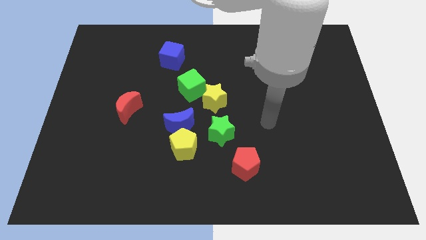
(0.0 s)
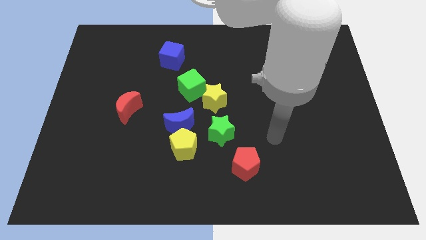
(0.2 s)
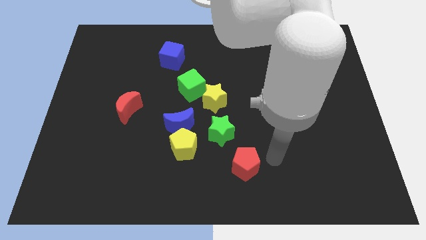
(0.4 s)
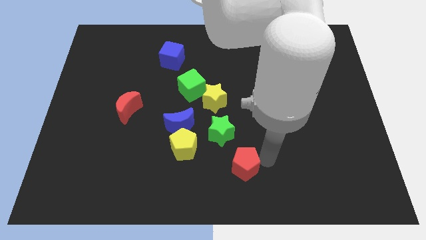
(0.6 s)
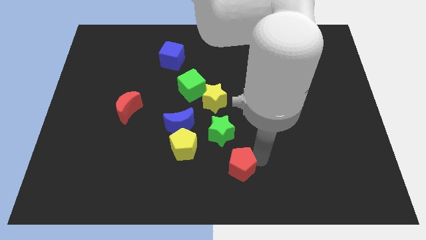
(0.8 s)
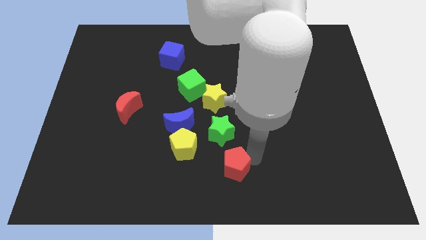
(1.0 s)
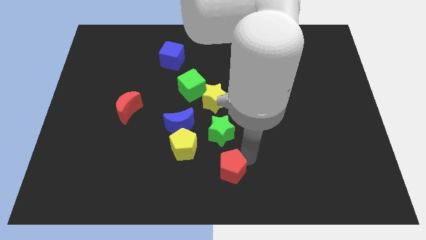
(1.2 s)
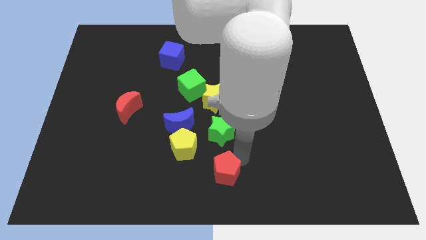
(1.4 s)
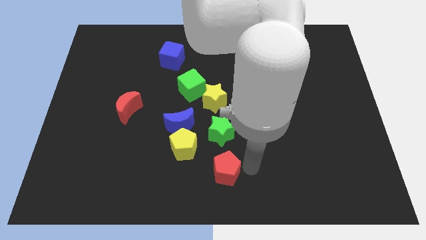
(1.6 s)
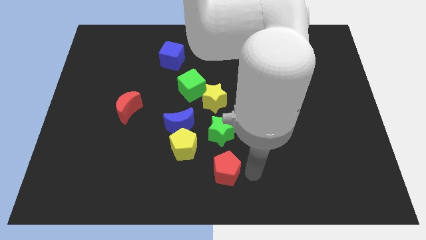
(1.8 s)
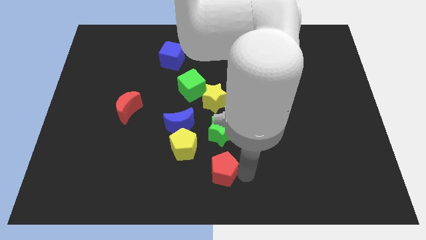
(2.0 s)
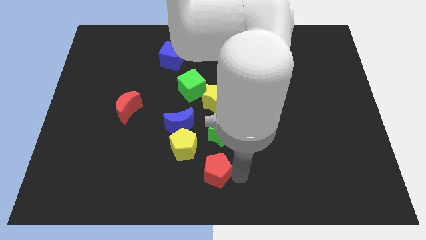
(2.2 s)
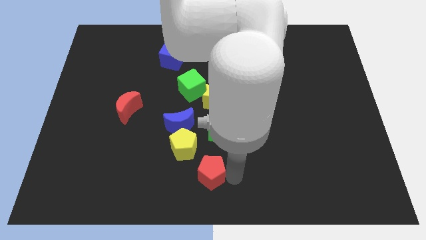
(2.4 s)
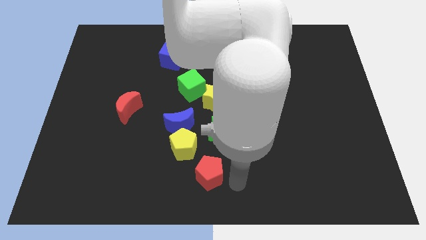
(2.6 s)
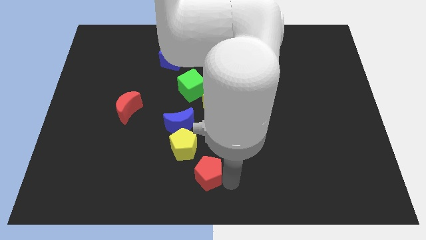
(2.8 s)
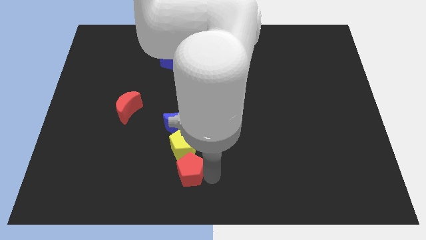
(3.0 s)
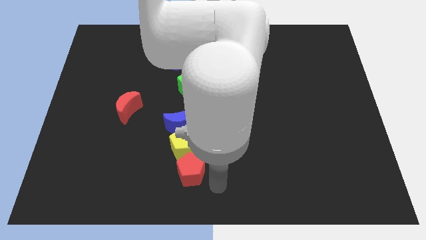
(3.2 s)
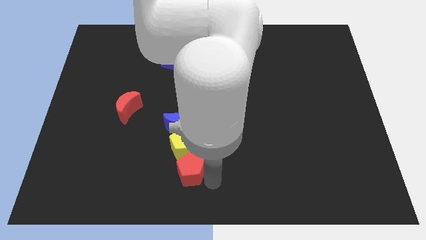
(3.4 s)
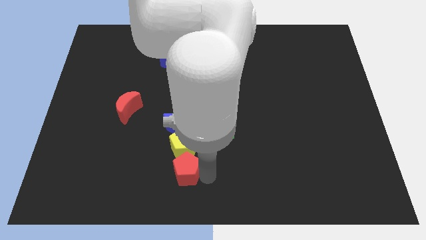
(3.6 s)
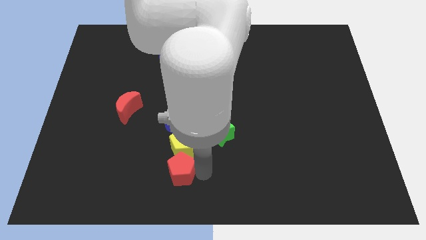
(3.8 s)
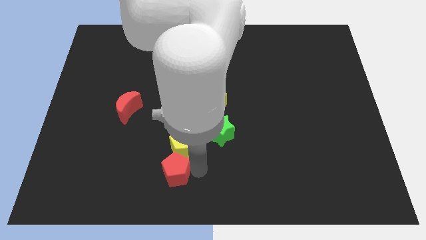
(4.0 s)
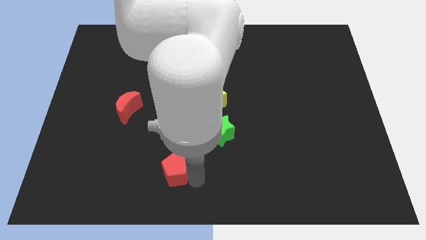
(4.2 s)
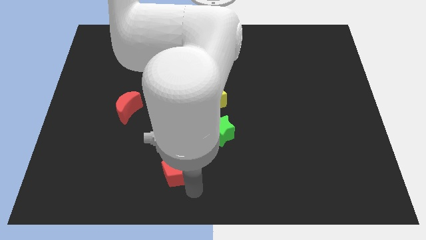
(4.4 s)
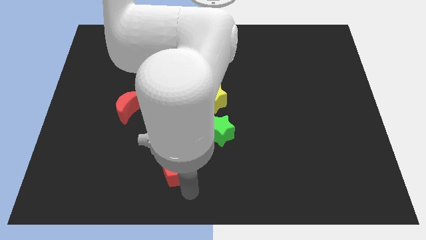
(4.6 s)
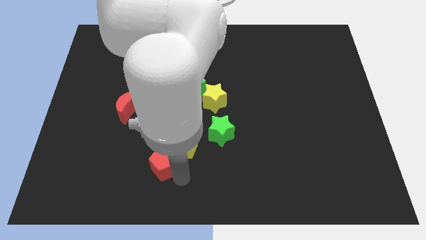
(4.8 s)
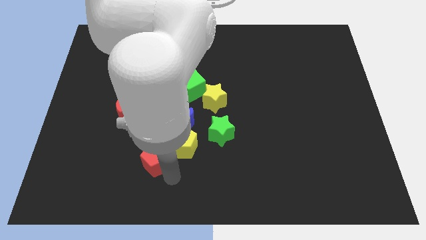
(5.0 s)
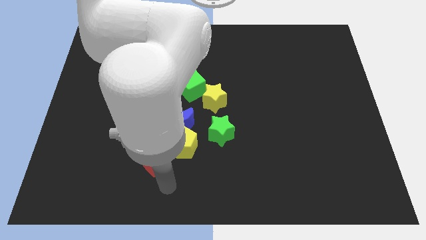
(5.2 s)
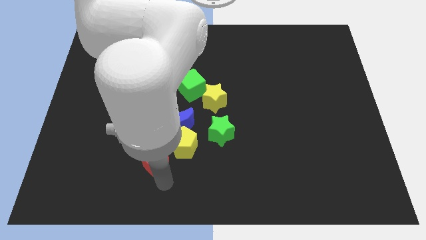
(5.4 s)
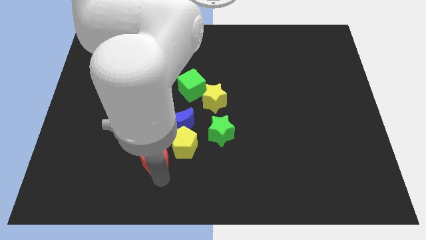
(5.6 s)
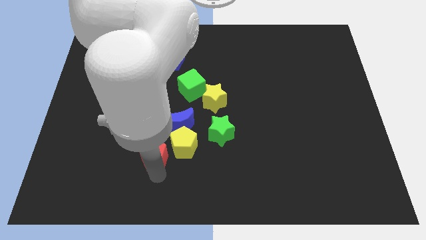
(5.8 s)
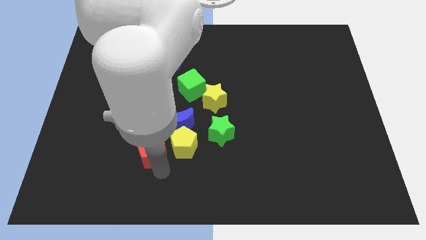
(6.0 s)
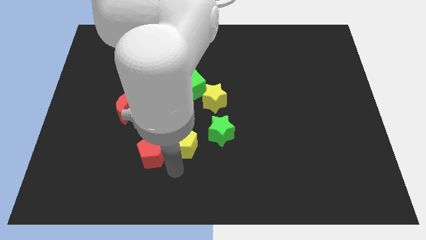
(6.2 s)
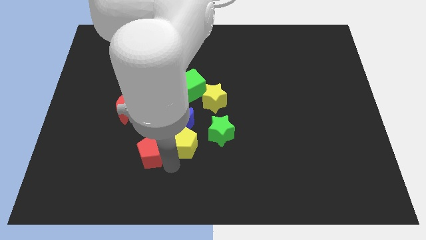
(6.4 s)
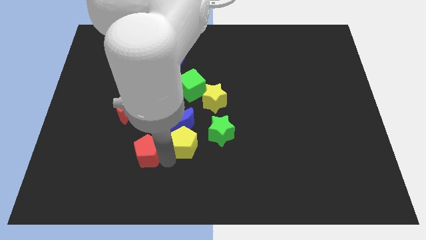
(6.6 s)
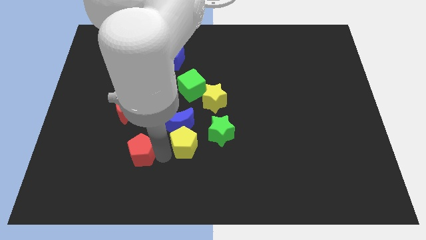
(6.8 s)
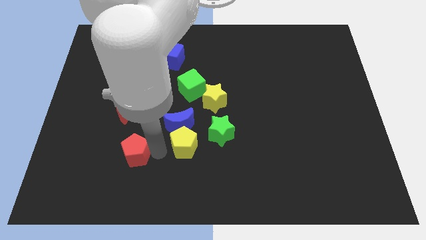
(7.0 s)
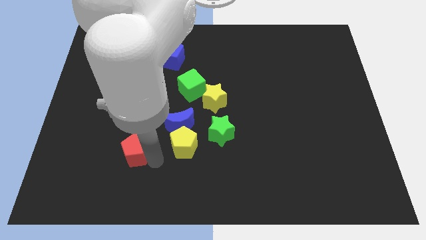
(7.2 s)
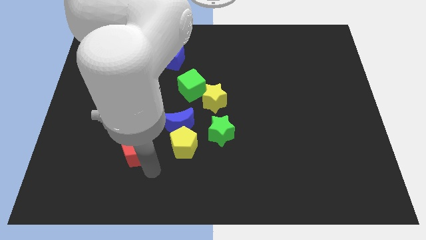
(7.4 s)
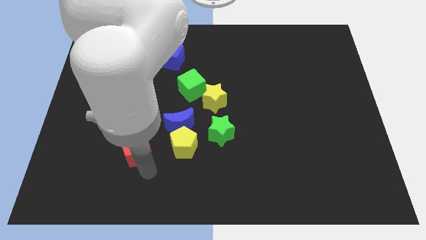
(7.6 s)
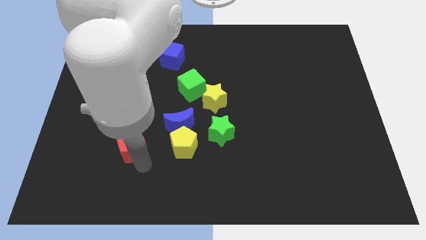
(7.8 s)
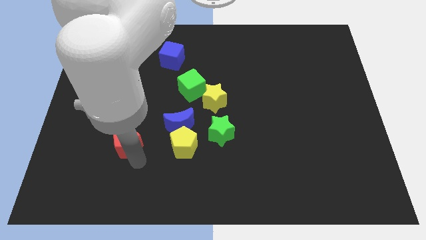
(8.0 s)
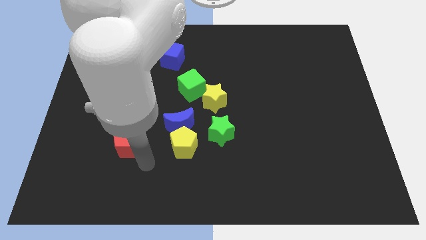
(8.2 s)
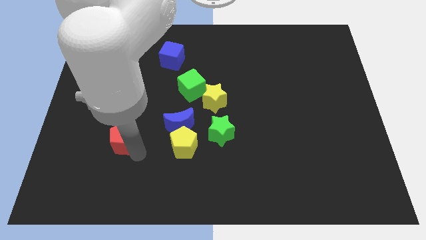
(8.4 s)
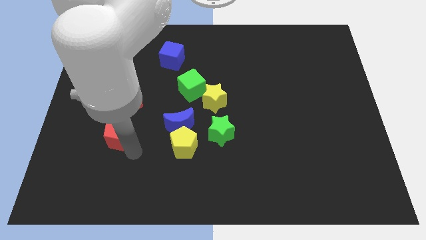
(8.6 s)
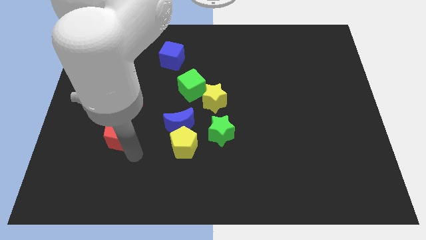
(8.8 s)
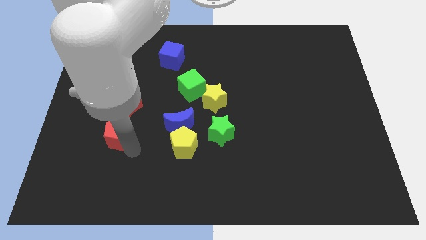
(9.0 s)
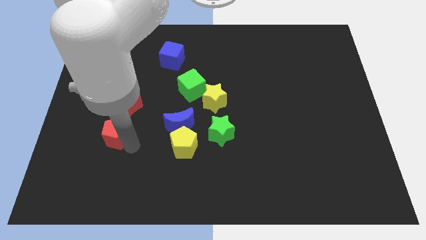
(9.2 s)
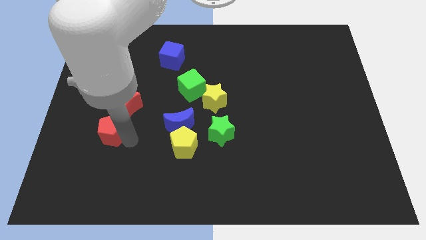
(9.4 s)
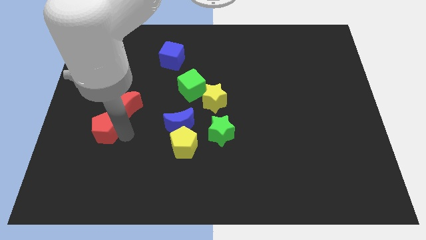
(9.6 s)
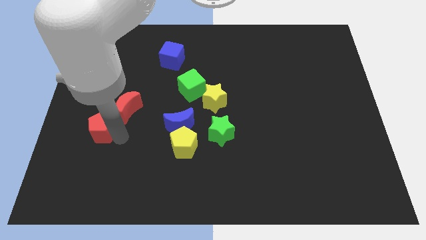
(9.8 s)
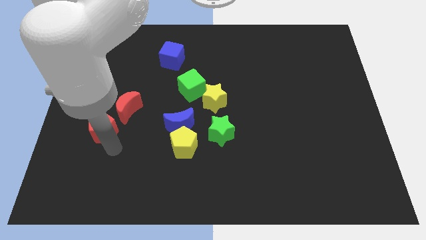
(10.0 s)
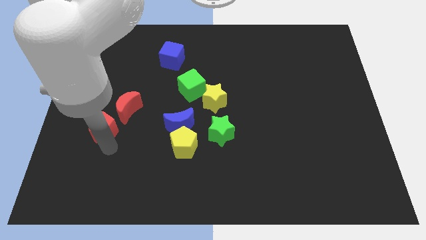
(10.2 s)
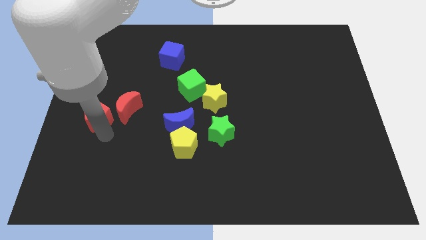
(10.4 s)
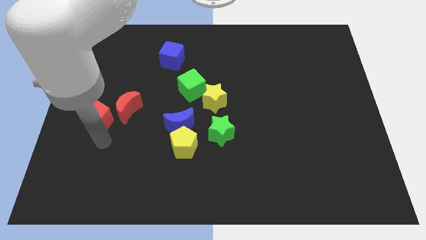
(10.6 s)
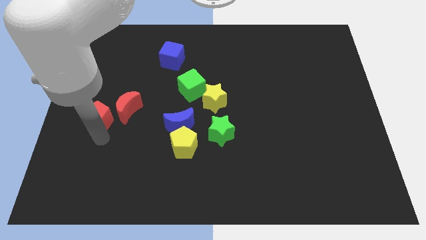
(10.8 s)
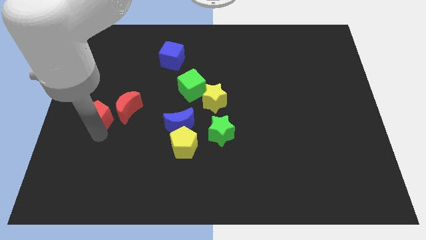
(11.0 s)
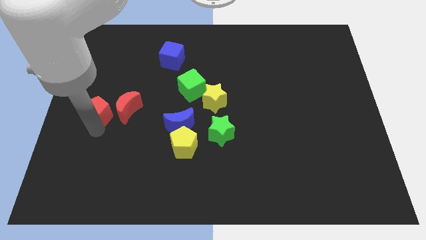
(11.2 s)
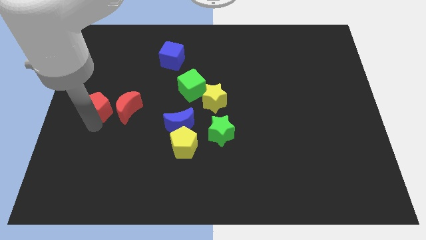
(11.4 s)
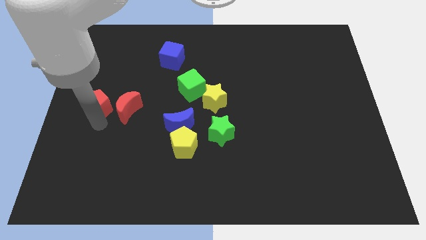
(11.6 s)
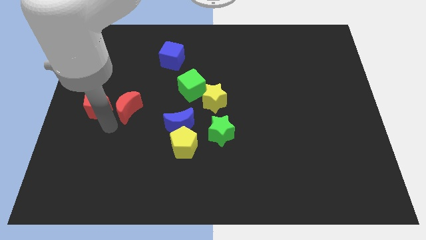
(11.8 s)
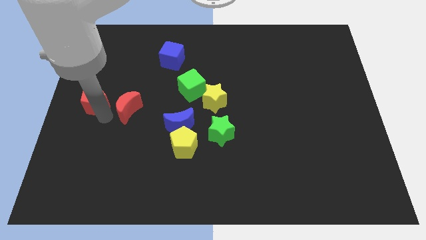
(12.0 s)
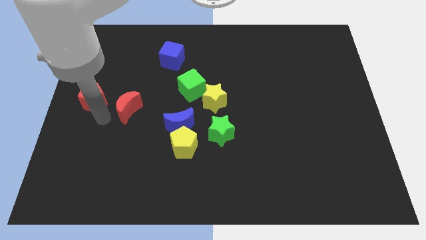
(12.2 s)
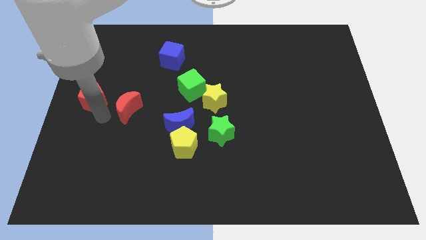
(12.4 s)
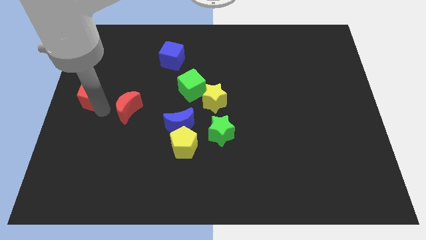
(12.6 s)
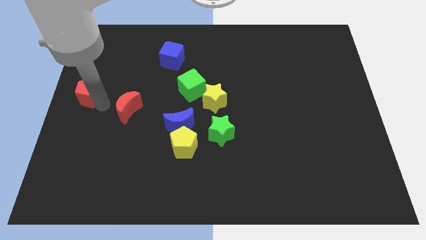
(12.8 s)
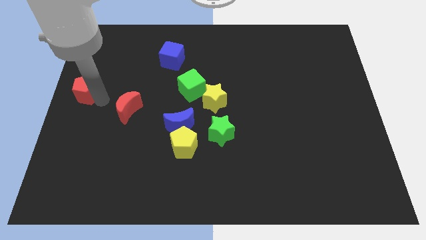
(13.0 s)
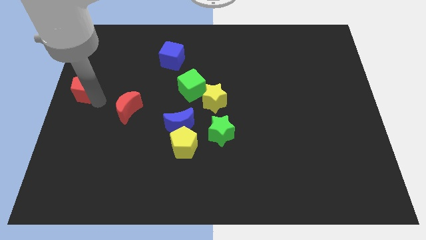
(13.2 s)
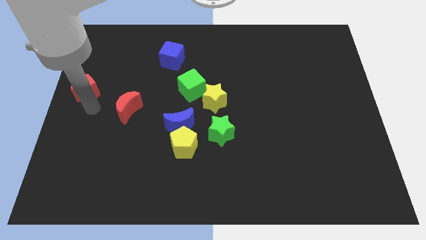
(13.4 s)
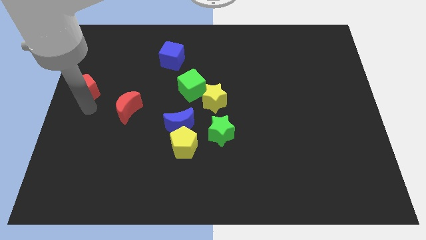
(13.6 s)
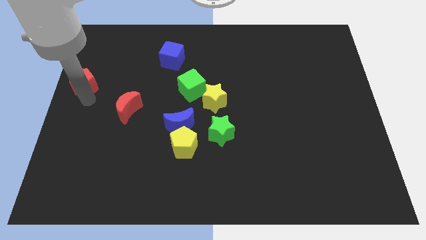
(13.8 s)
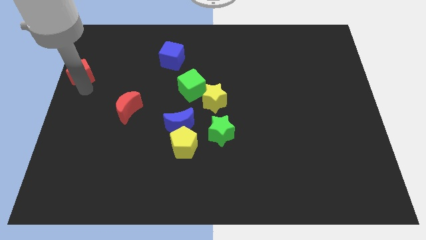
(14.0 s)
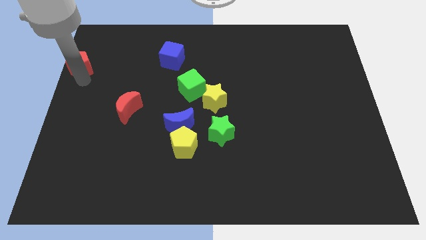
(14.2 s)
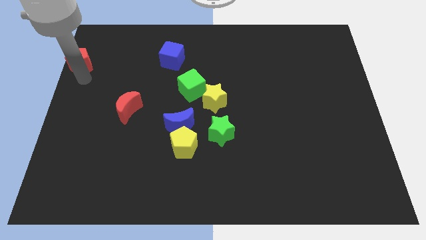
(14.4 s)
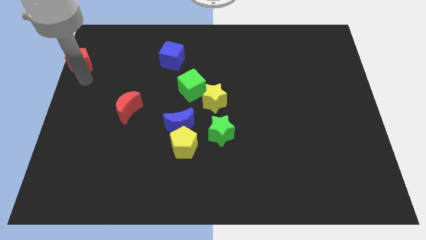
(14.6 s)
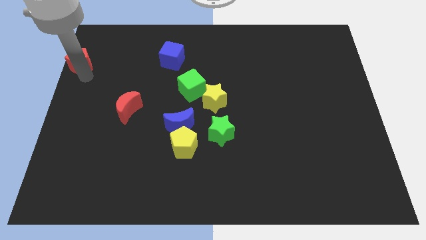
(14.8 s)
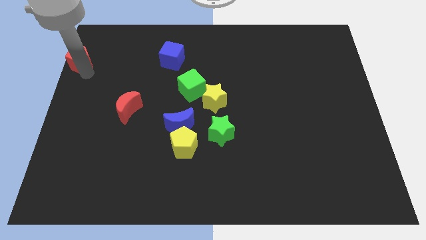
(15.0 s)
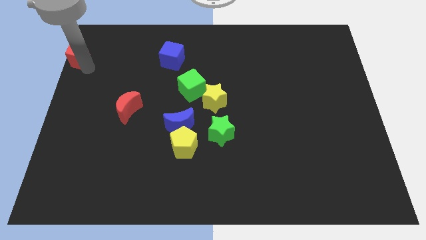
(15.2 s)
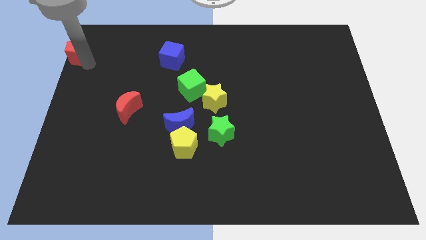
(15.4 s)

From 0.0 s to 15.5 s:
move the red pentagon to the top left corner
